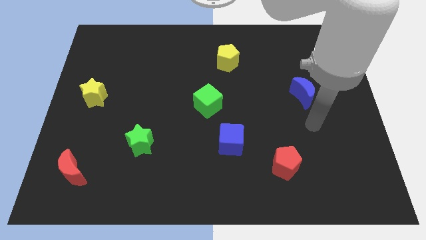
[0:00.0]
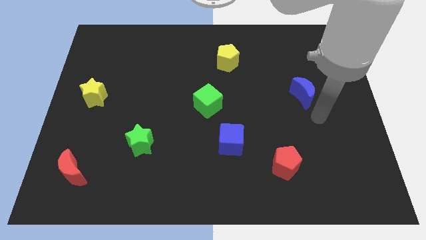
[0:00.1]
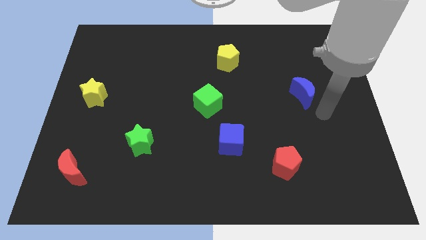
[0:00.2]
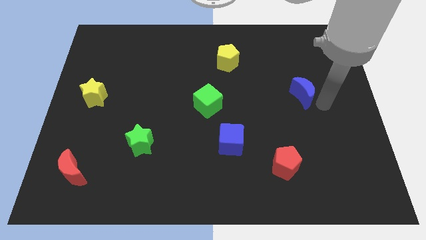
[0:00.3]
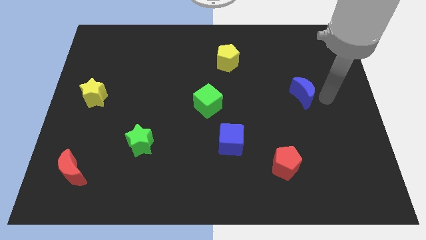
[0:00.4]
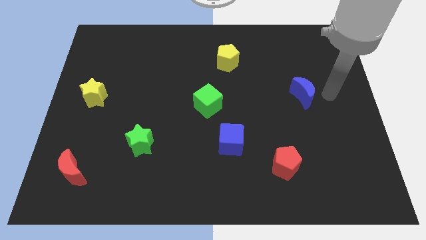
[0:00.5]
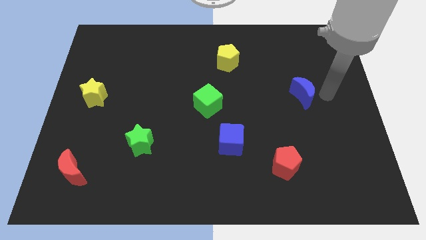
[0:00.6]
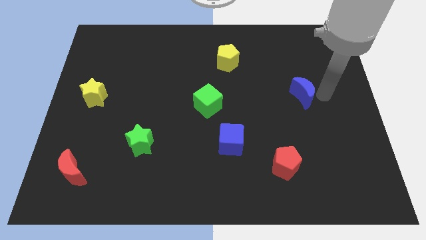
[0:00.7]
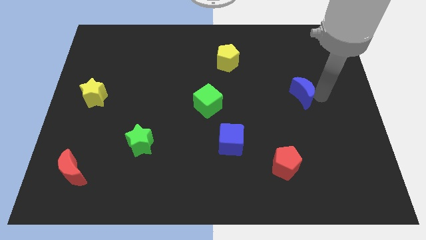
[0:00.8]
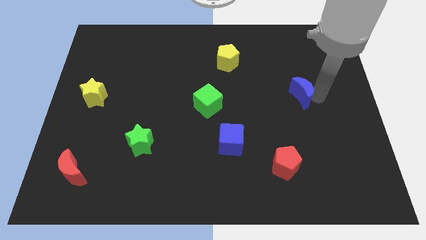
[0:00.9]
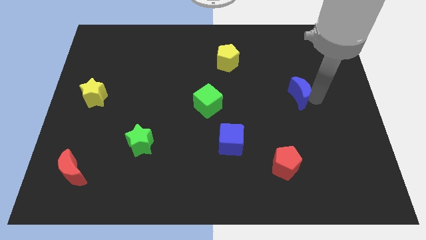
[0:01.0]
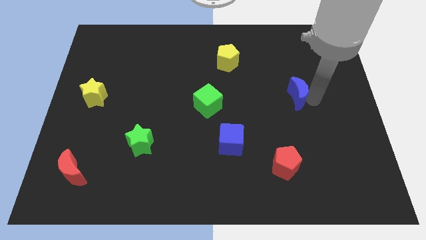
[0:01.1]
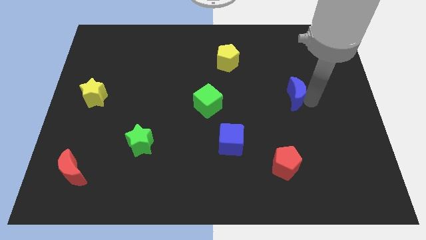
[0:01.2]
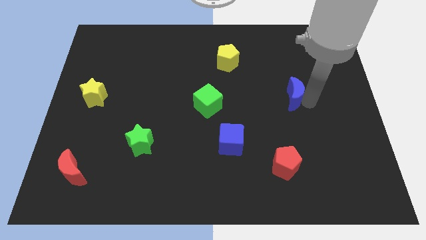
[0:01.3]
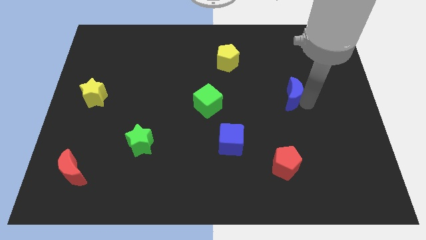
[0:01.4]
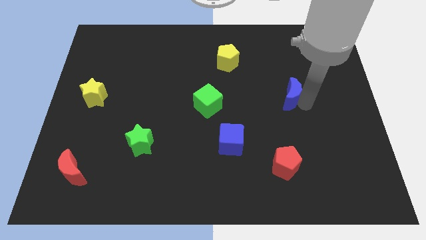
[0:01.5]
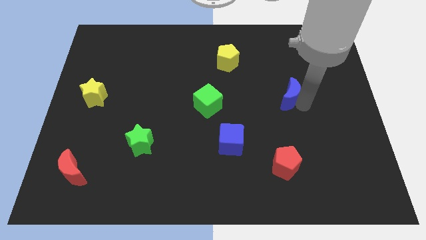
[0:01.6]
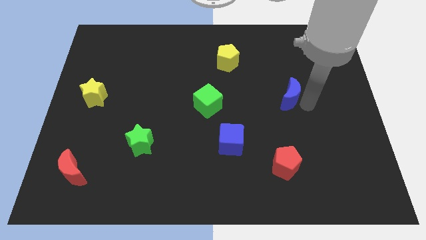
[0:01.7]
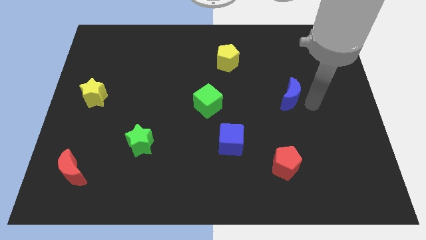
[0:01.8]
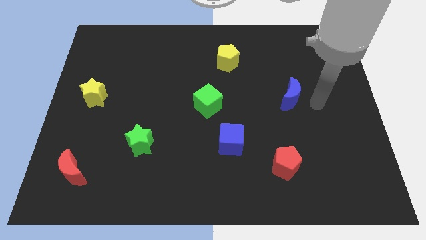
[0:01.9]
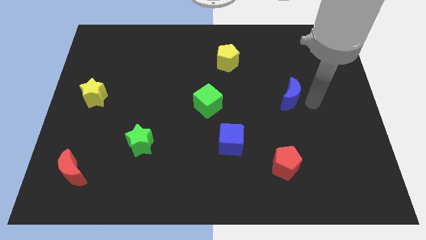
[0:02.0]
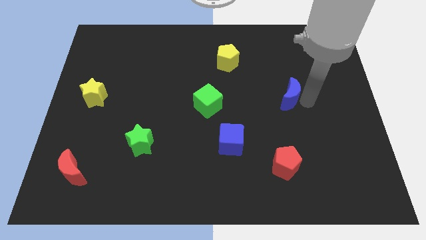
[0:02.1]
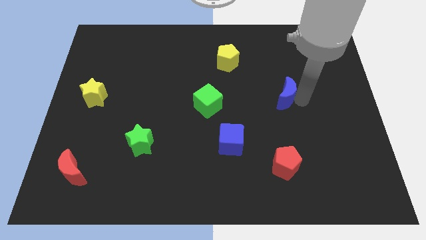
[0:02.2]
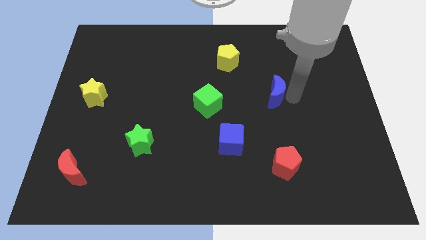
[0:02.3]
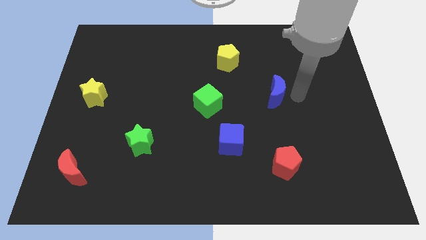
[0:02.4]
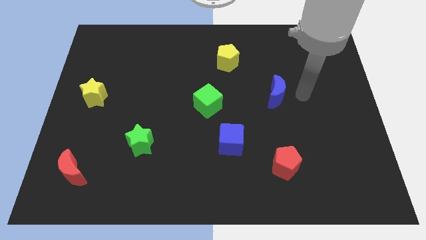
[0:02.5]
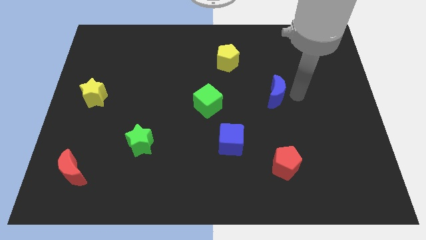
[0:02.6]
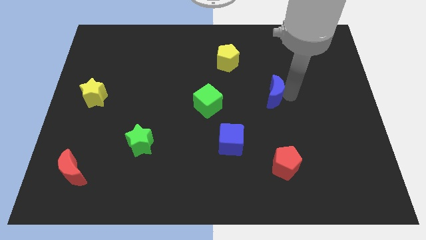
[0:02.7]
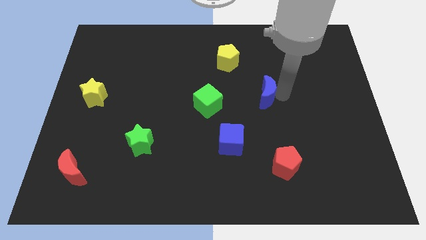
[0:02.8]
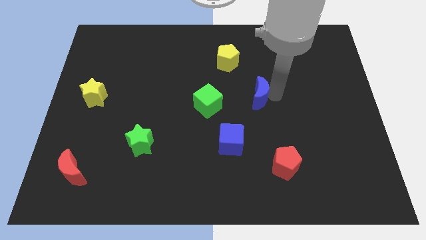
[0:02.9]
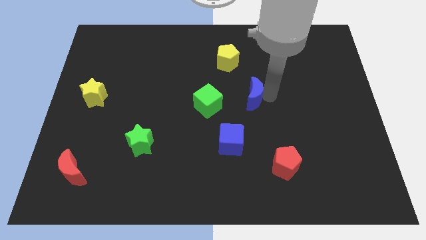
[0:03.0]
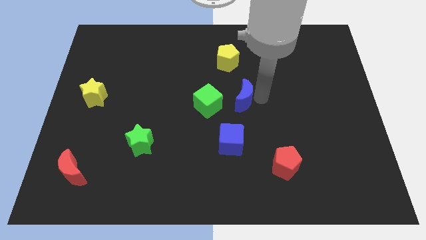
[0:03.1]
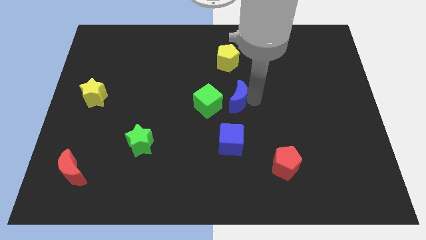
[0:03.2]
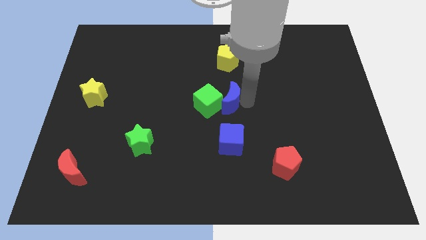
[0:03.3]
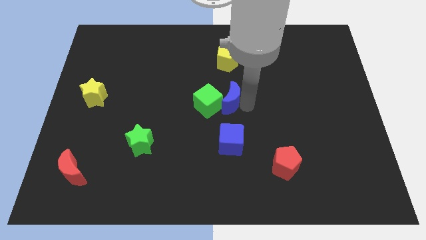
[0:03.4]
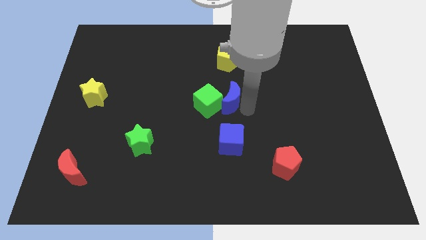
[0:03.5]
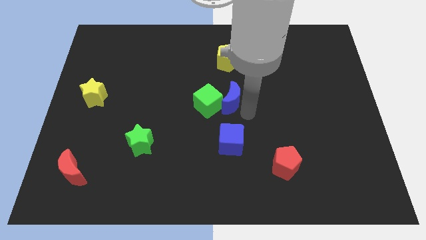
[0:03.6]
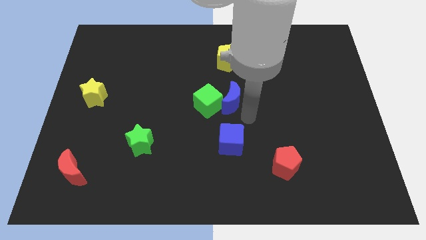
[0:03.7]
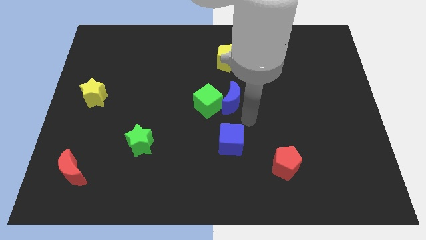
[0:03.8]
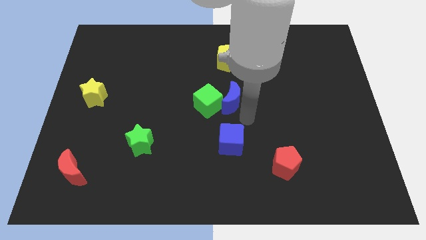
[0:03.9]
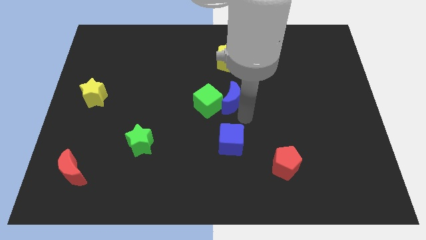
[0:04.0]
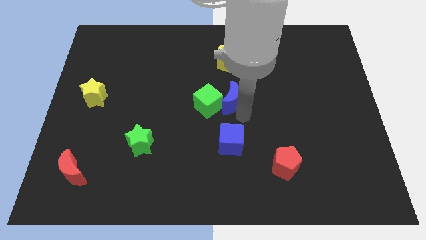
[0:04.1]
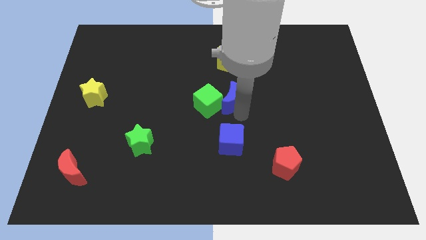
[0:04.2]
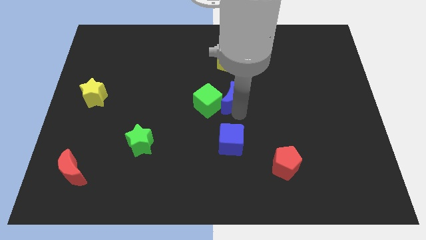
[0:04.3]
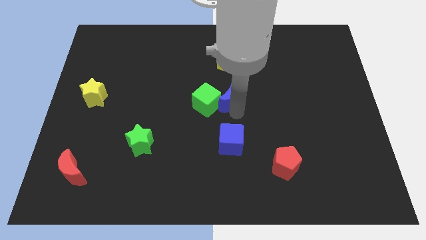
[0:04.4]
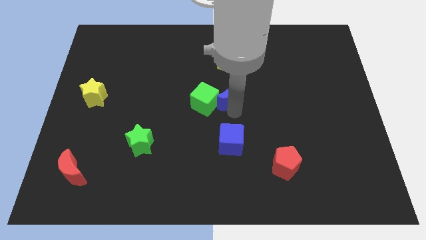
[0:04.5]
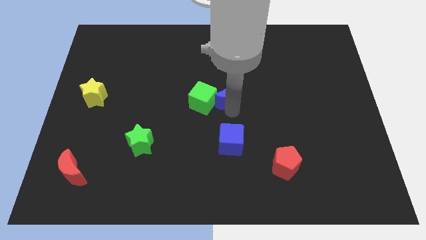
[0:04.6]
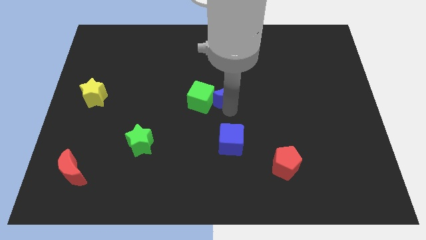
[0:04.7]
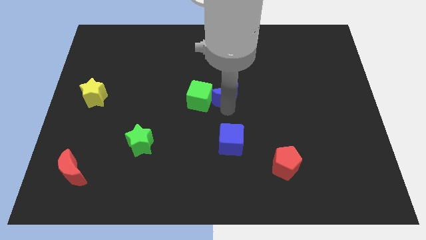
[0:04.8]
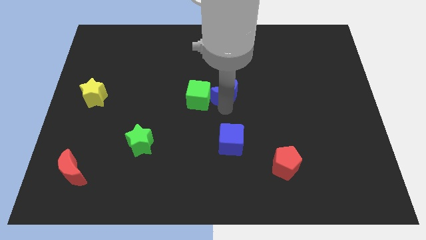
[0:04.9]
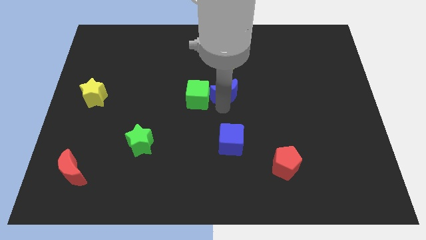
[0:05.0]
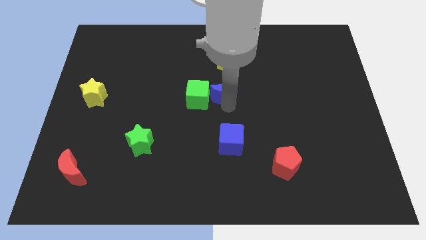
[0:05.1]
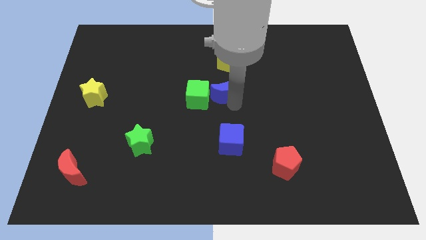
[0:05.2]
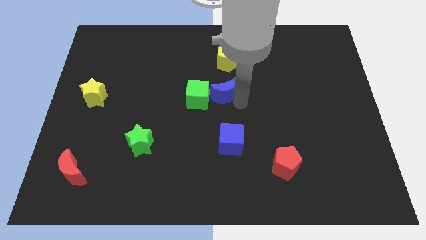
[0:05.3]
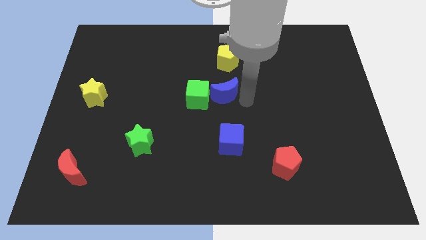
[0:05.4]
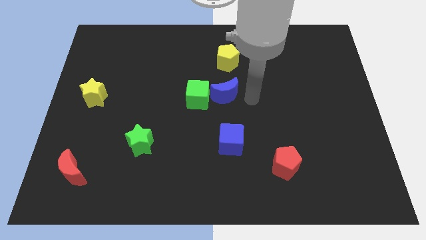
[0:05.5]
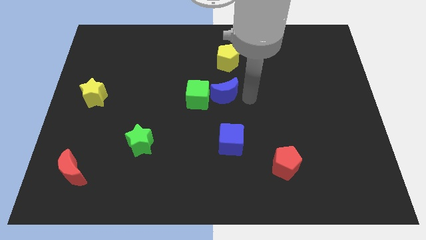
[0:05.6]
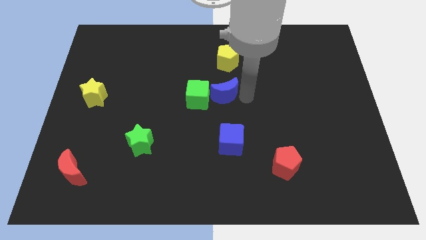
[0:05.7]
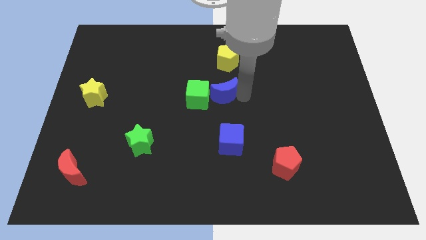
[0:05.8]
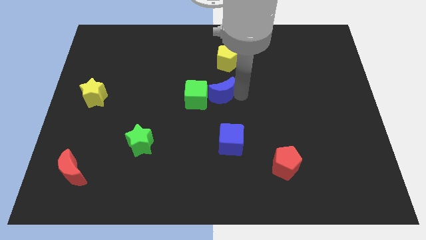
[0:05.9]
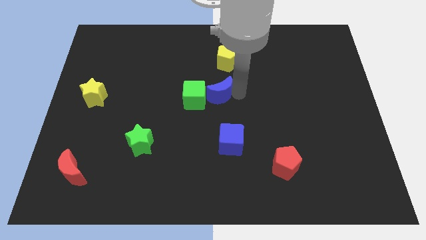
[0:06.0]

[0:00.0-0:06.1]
push the blue moon left

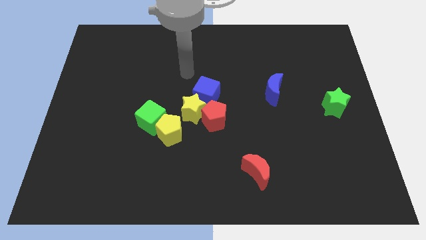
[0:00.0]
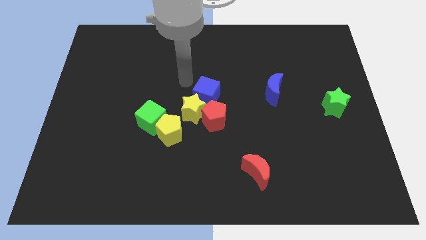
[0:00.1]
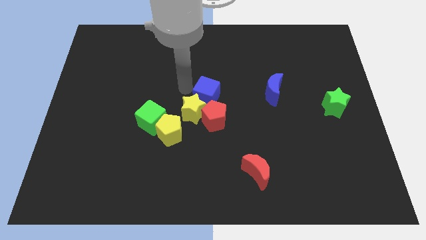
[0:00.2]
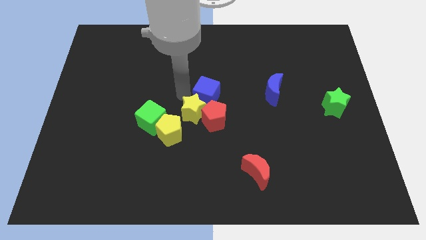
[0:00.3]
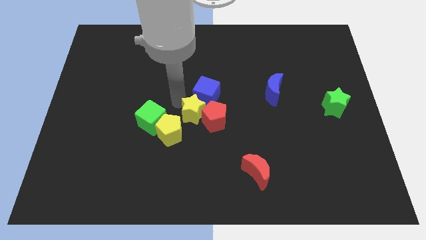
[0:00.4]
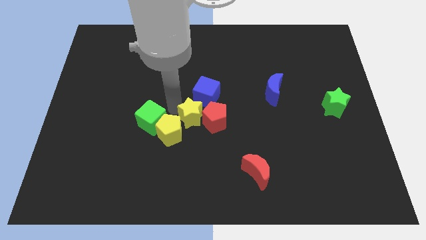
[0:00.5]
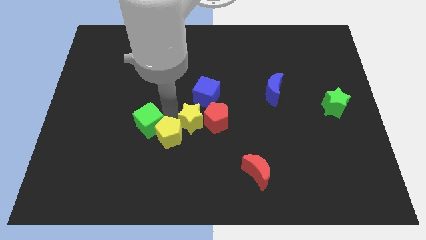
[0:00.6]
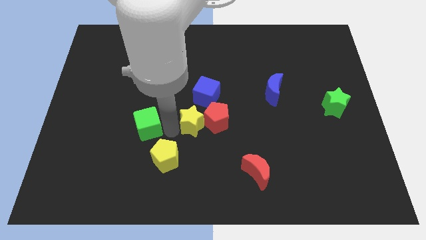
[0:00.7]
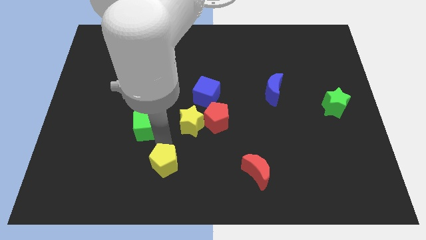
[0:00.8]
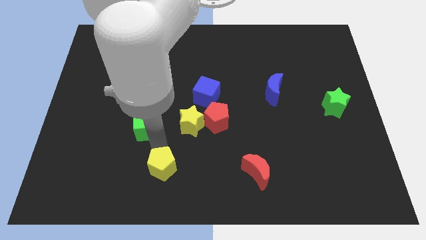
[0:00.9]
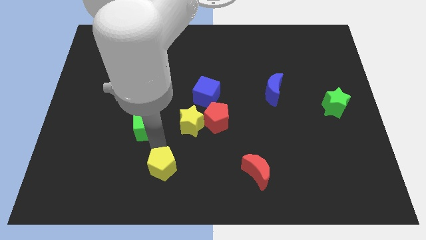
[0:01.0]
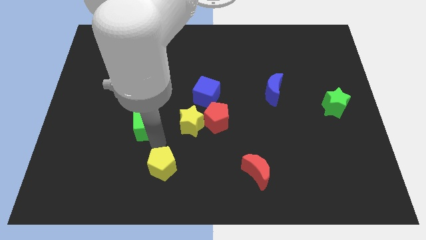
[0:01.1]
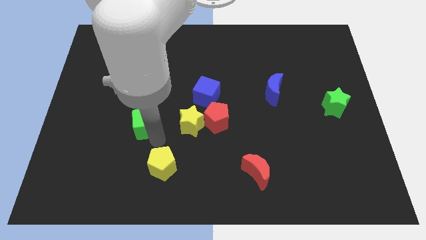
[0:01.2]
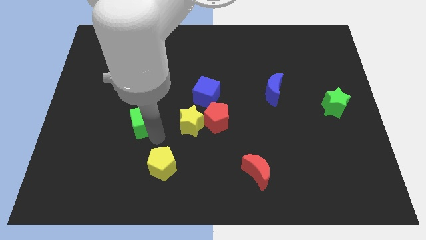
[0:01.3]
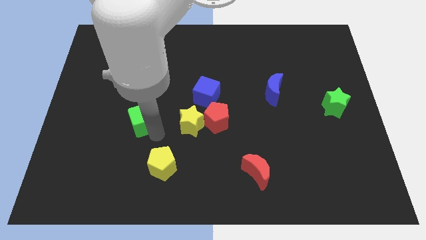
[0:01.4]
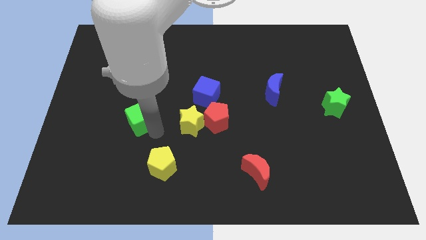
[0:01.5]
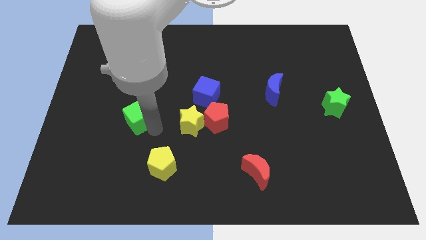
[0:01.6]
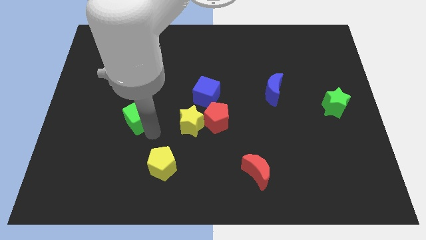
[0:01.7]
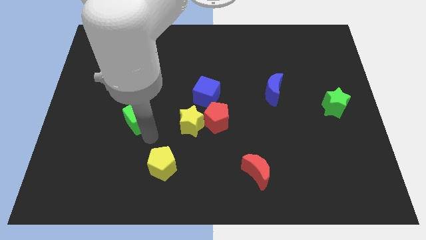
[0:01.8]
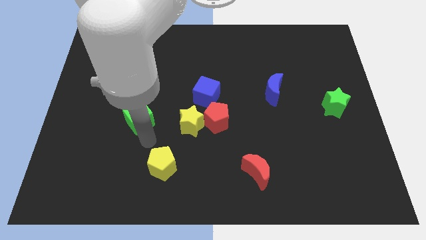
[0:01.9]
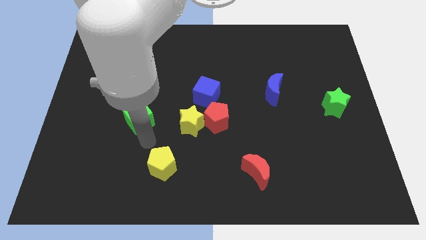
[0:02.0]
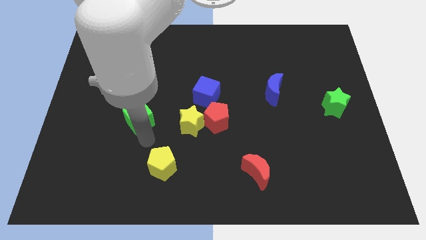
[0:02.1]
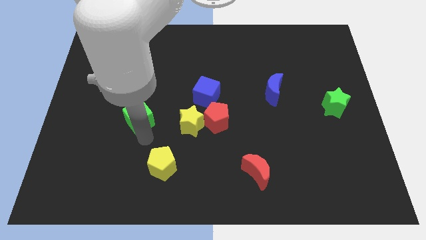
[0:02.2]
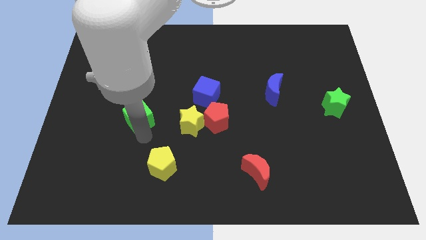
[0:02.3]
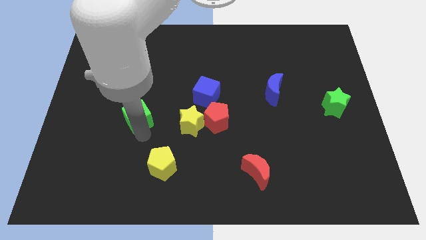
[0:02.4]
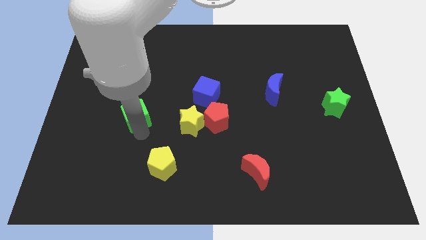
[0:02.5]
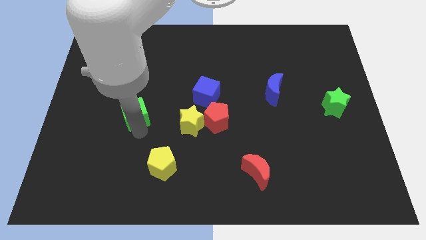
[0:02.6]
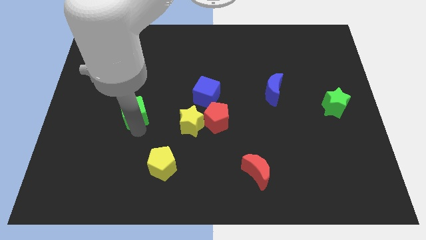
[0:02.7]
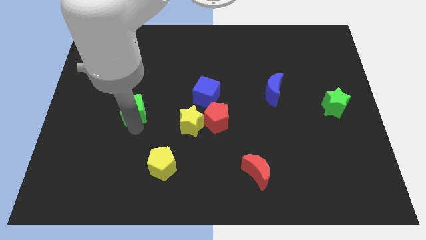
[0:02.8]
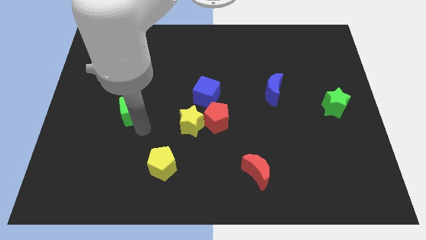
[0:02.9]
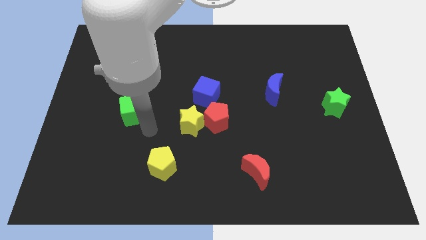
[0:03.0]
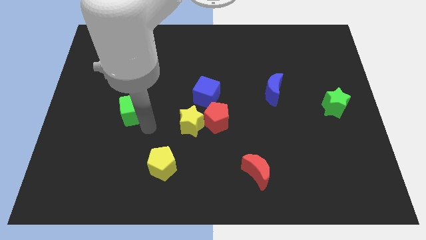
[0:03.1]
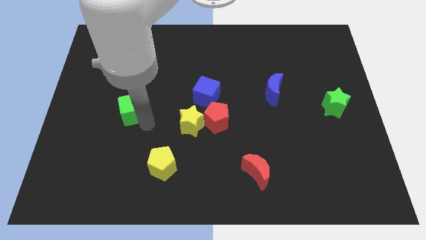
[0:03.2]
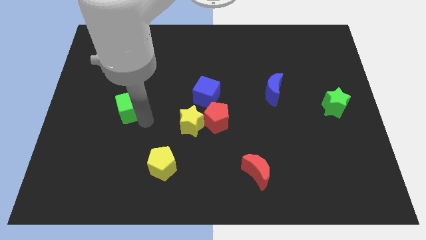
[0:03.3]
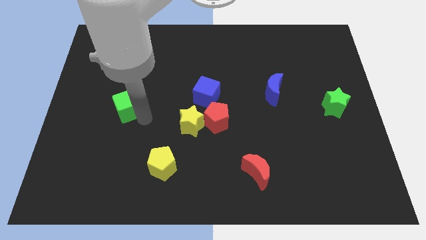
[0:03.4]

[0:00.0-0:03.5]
move the green cube a little diagonally up and left
